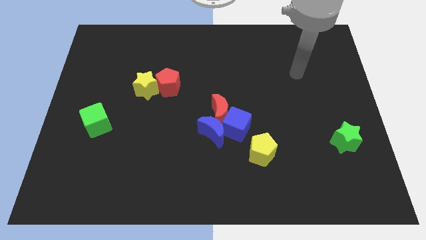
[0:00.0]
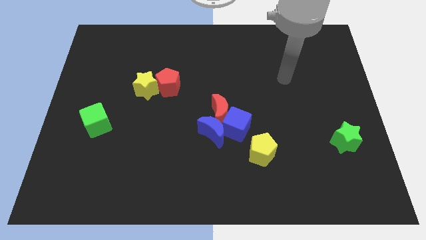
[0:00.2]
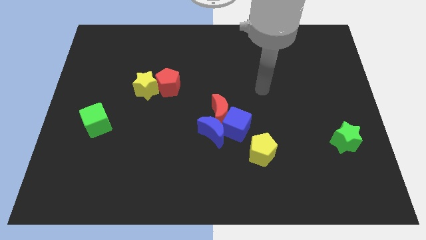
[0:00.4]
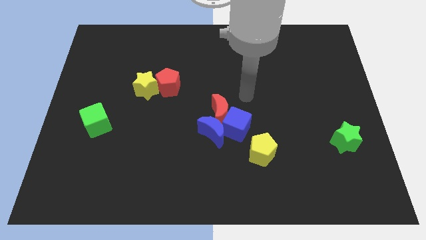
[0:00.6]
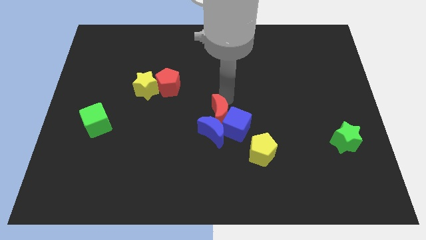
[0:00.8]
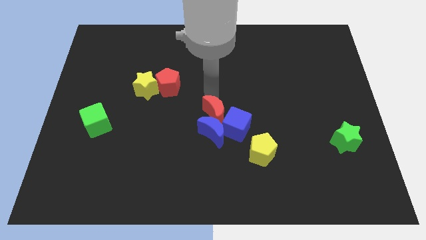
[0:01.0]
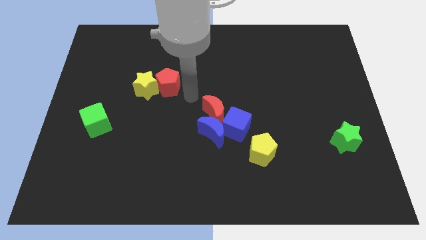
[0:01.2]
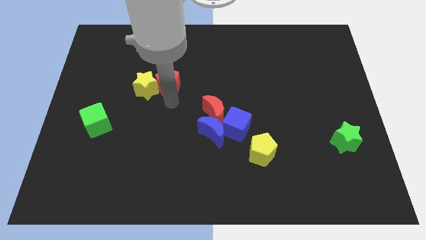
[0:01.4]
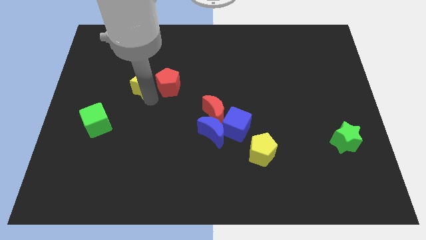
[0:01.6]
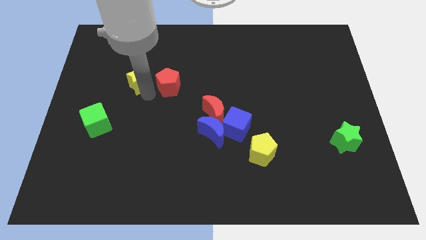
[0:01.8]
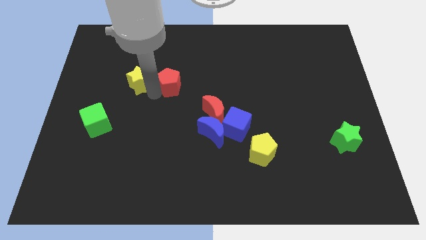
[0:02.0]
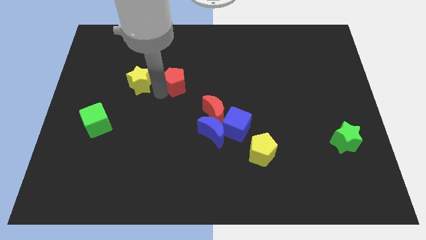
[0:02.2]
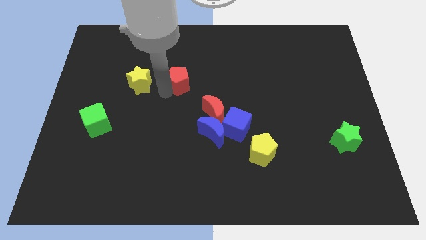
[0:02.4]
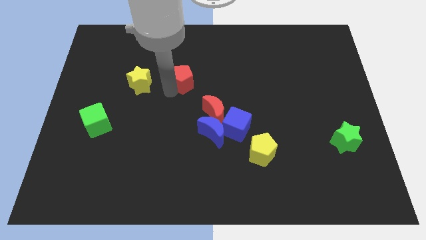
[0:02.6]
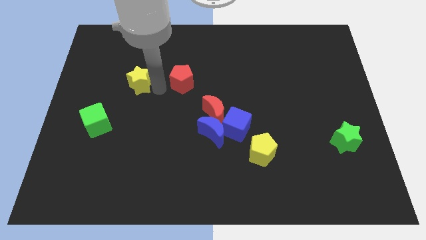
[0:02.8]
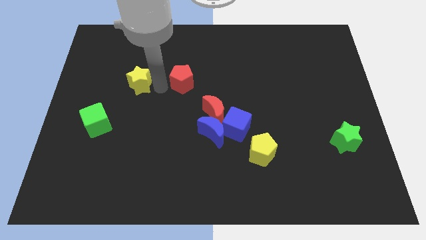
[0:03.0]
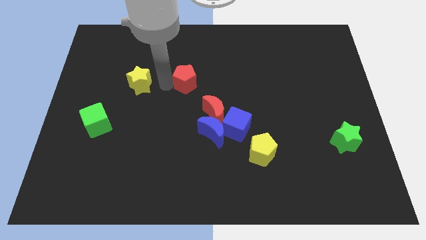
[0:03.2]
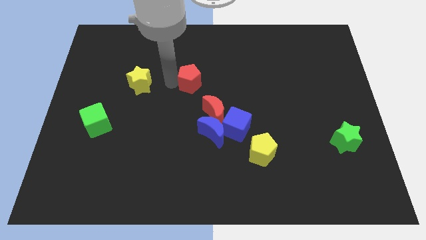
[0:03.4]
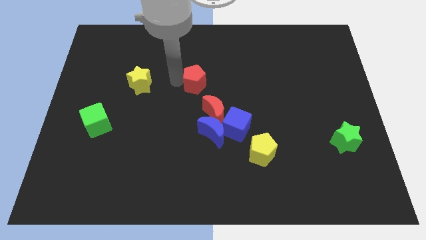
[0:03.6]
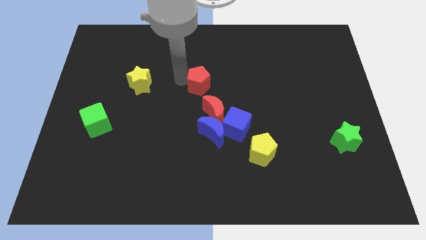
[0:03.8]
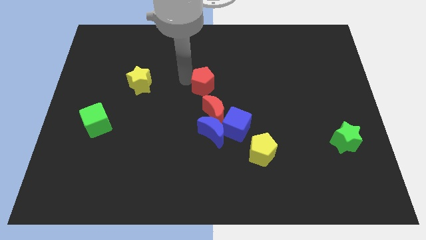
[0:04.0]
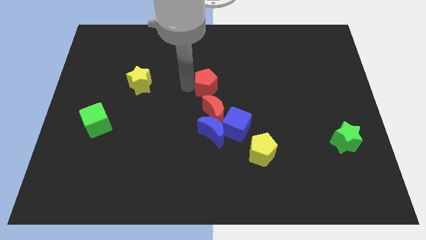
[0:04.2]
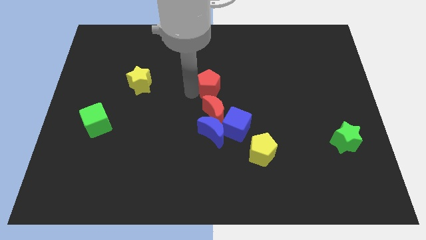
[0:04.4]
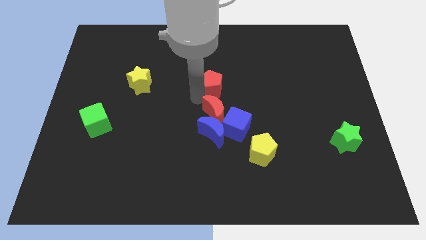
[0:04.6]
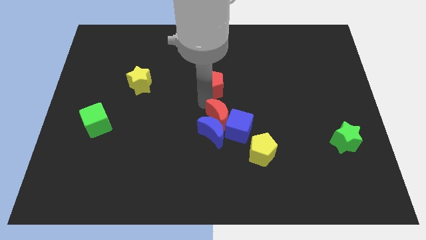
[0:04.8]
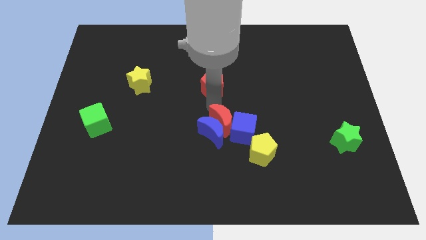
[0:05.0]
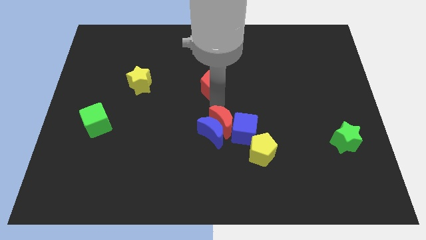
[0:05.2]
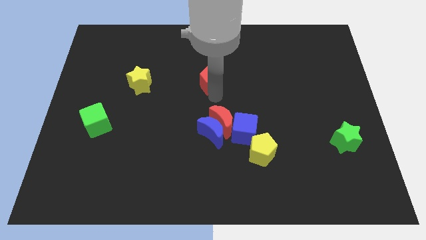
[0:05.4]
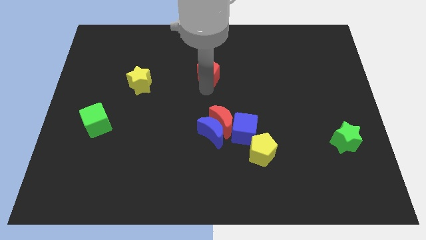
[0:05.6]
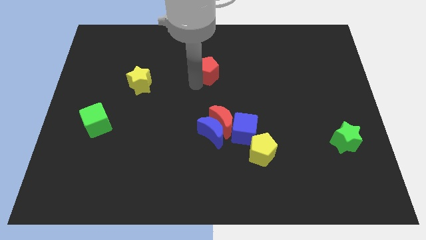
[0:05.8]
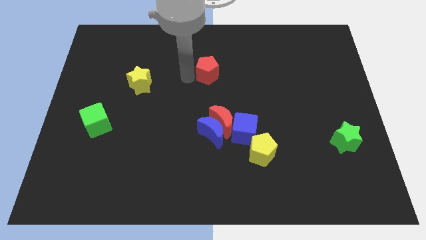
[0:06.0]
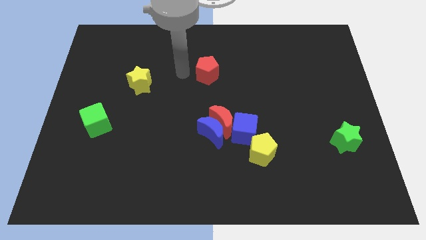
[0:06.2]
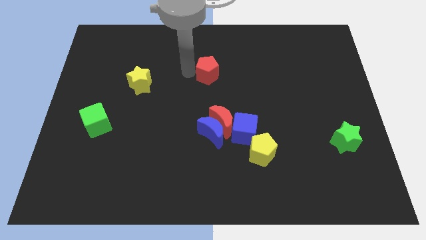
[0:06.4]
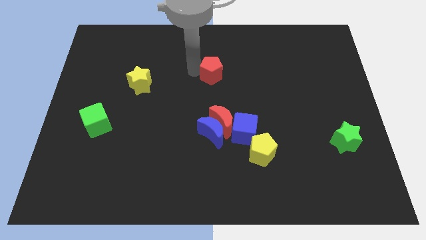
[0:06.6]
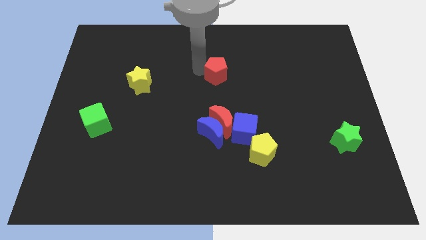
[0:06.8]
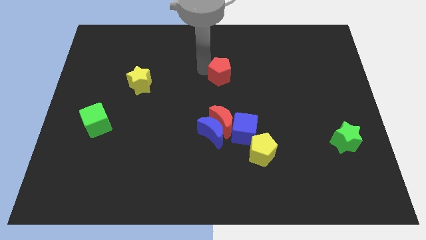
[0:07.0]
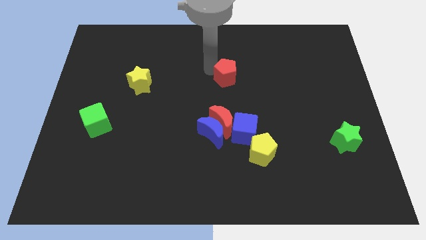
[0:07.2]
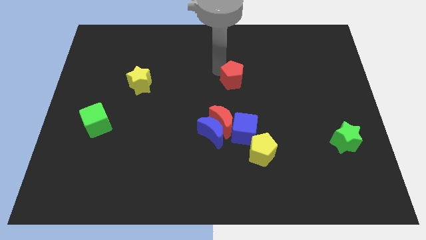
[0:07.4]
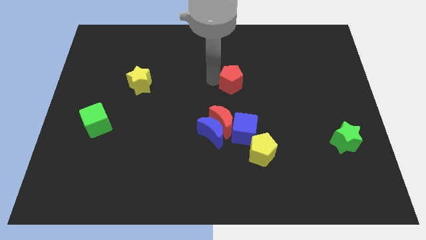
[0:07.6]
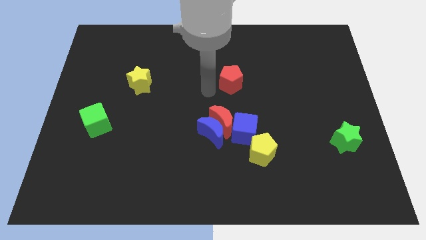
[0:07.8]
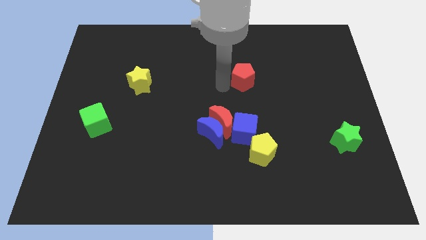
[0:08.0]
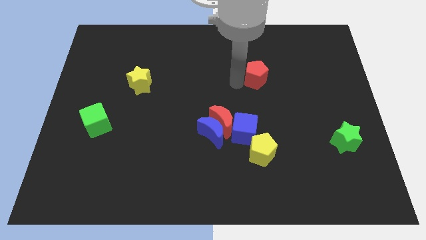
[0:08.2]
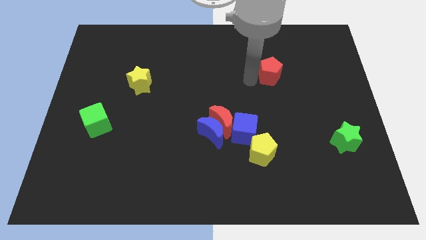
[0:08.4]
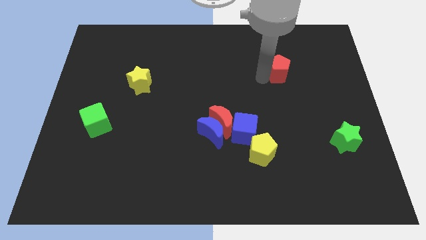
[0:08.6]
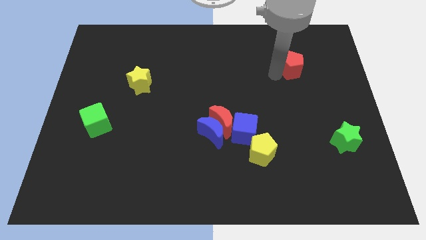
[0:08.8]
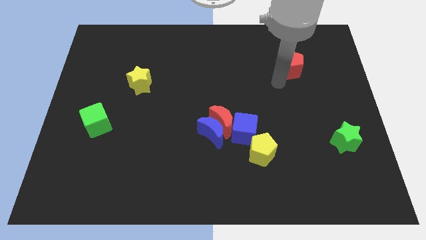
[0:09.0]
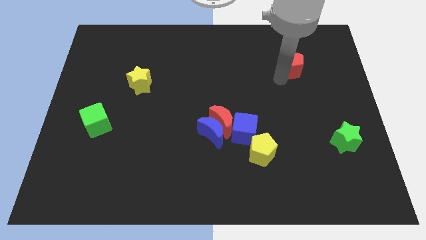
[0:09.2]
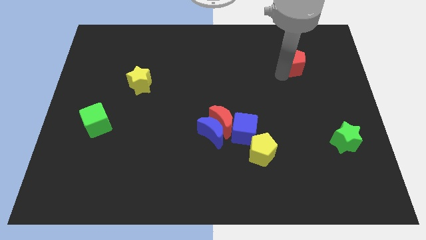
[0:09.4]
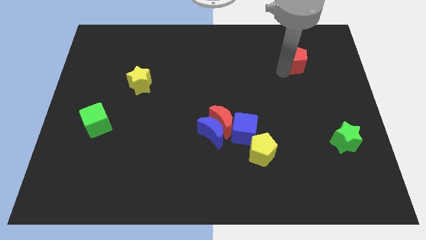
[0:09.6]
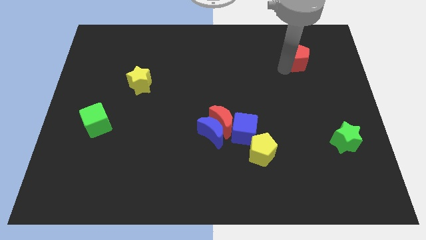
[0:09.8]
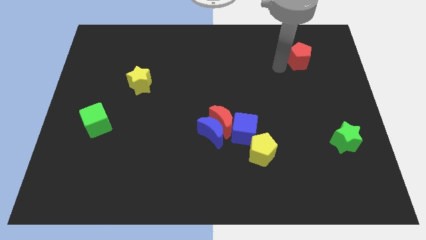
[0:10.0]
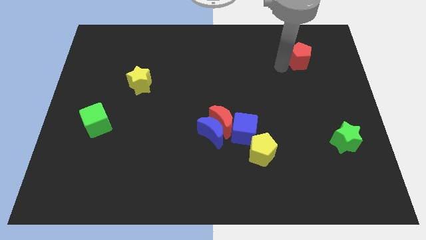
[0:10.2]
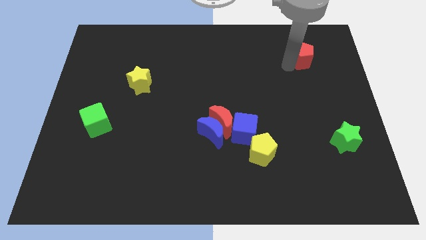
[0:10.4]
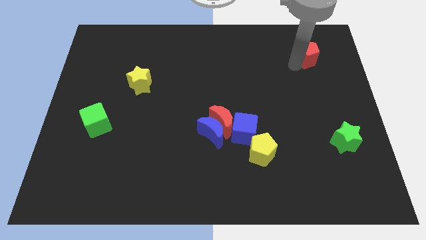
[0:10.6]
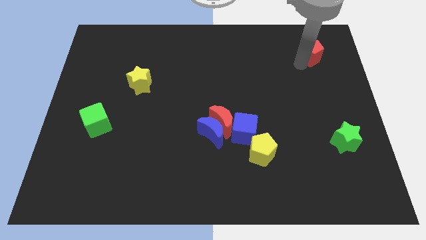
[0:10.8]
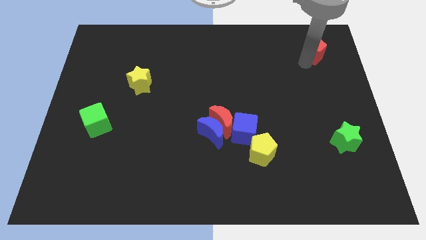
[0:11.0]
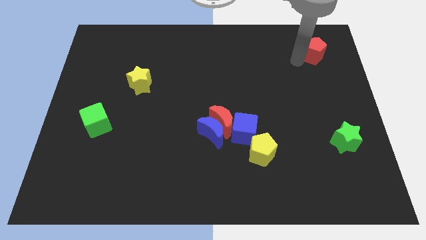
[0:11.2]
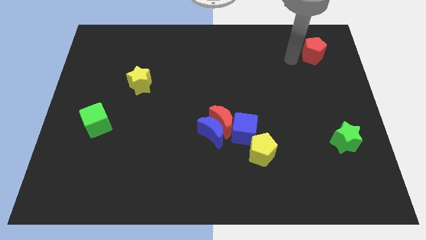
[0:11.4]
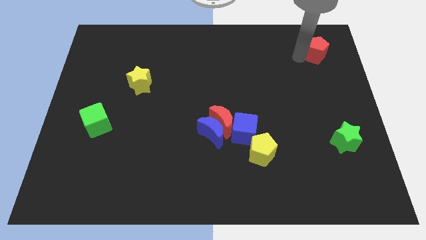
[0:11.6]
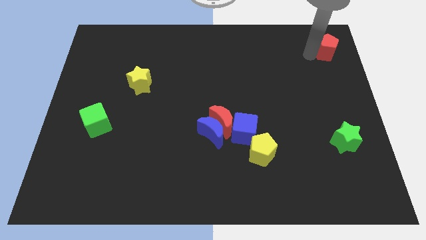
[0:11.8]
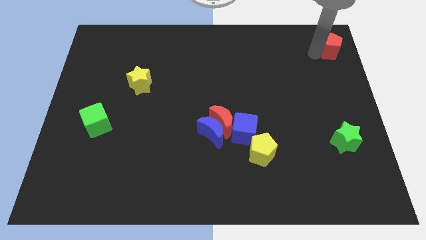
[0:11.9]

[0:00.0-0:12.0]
put the red pentagon to the upper right corner

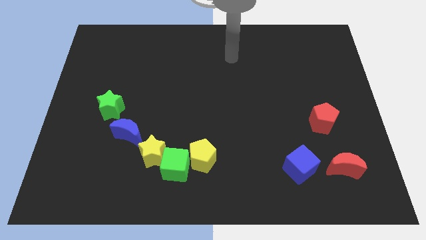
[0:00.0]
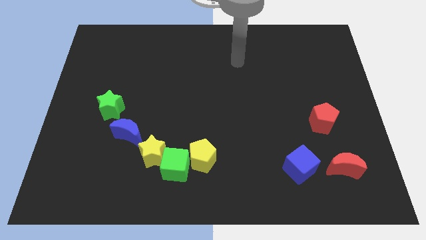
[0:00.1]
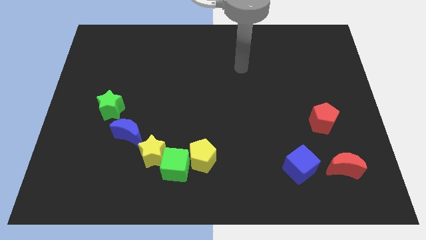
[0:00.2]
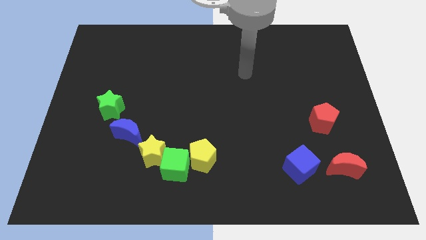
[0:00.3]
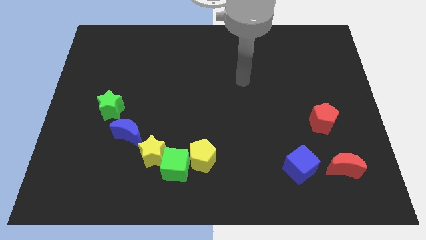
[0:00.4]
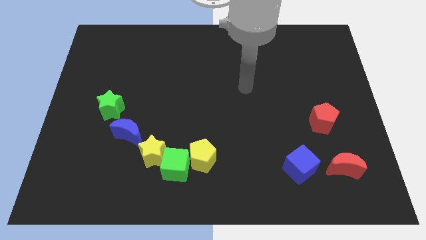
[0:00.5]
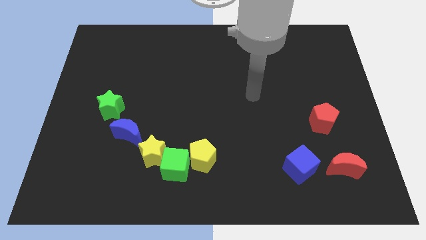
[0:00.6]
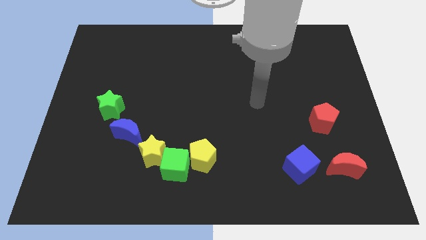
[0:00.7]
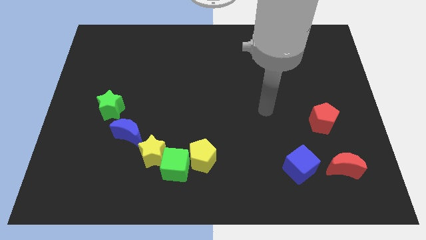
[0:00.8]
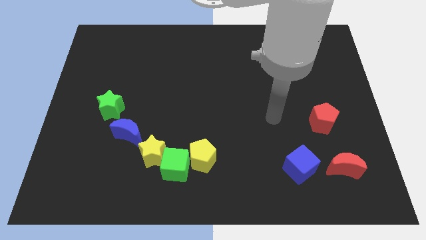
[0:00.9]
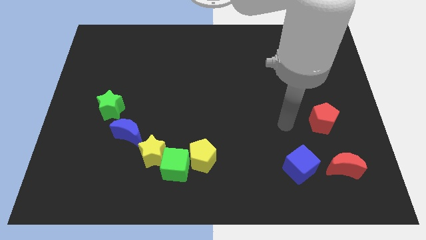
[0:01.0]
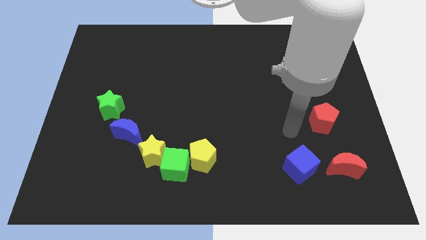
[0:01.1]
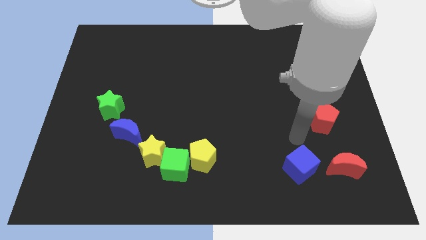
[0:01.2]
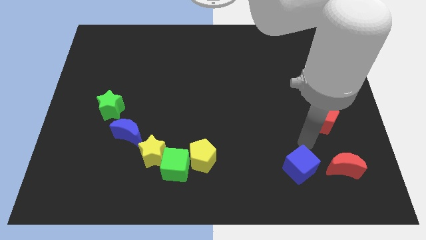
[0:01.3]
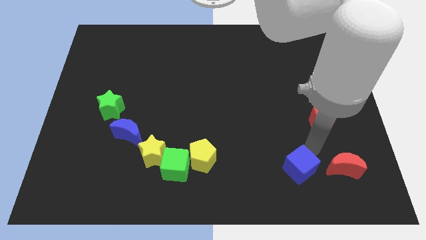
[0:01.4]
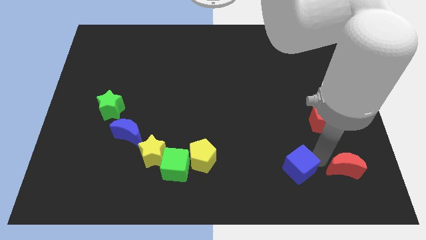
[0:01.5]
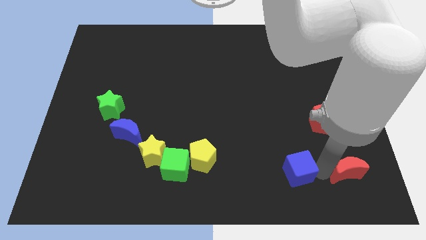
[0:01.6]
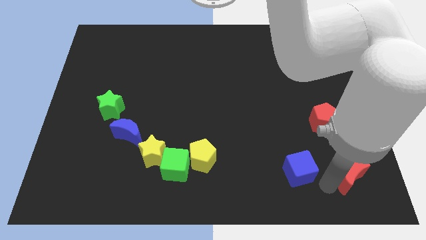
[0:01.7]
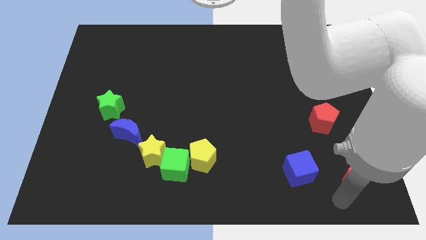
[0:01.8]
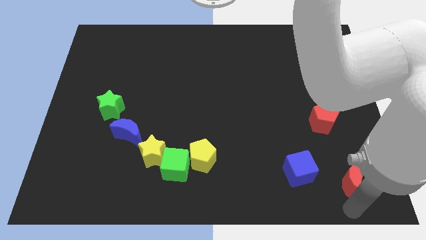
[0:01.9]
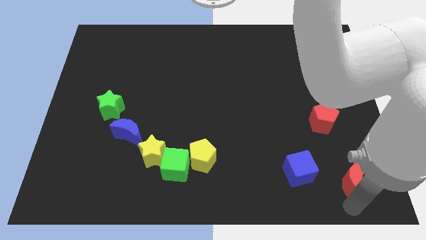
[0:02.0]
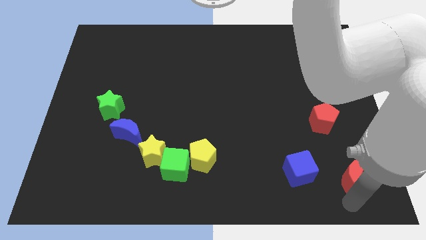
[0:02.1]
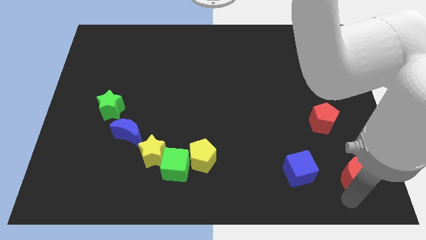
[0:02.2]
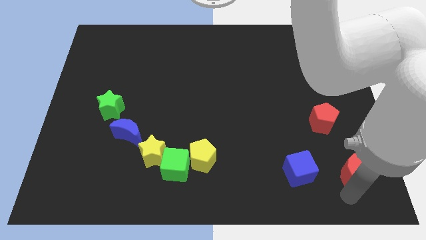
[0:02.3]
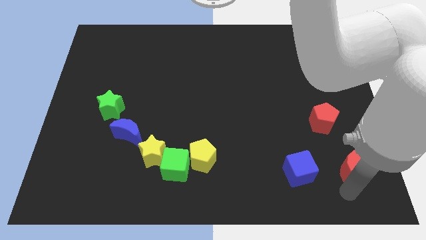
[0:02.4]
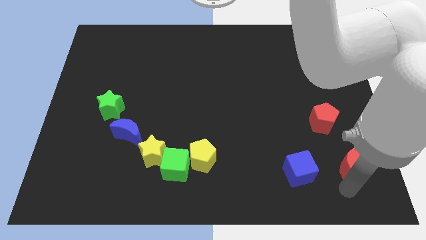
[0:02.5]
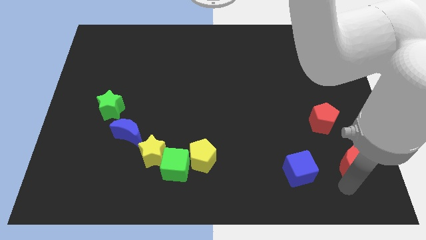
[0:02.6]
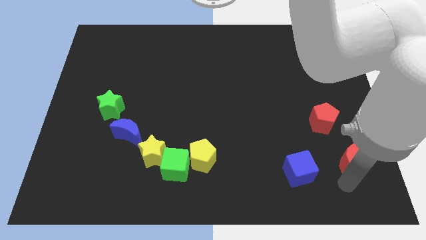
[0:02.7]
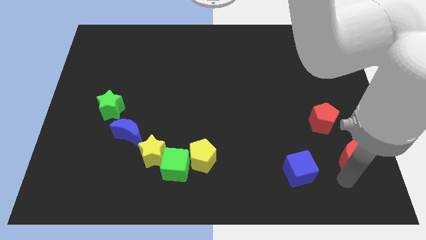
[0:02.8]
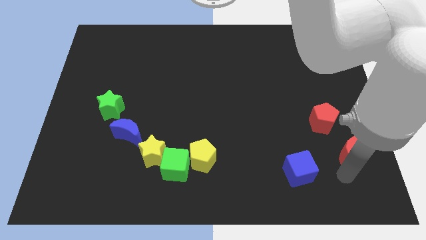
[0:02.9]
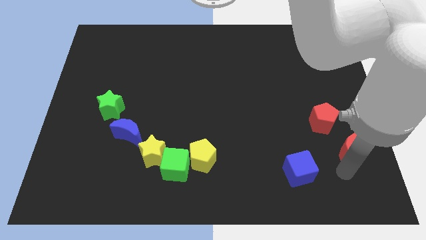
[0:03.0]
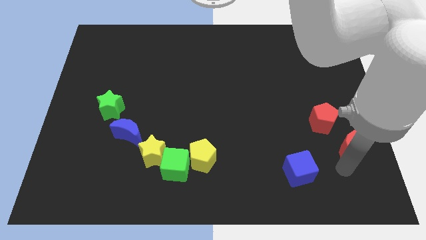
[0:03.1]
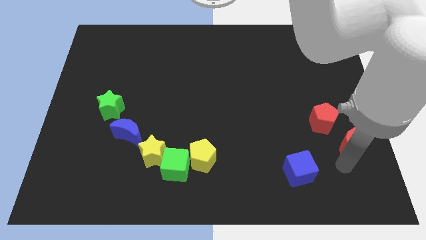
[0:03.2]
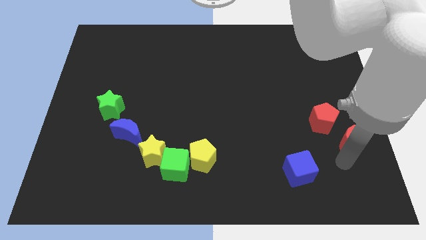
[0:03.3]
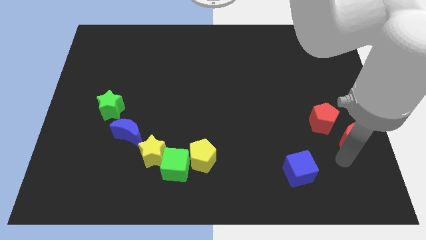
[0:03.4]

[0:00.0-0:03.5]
put the red moon to the center right
